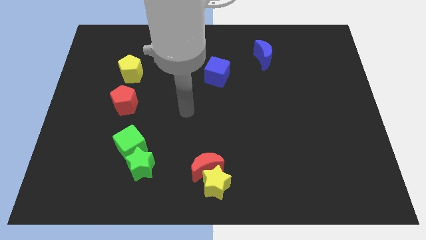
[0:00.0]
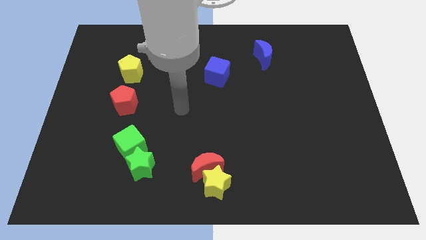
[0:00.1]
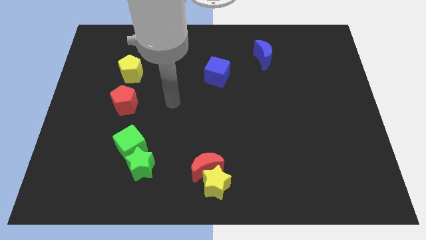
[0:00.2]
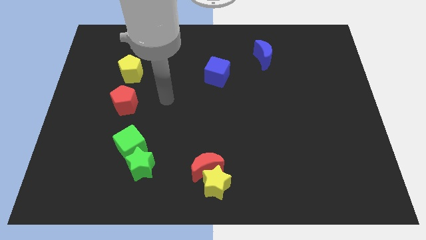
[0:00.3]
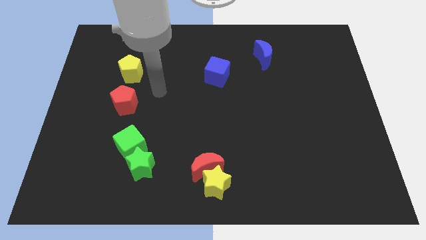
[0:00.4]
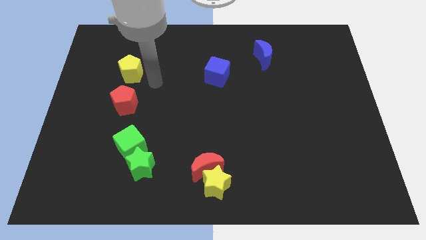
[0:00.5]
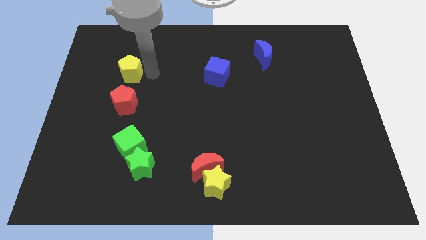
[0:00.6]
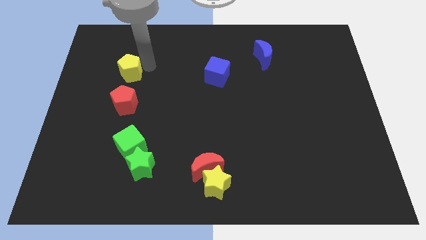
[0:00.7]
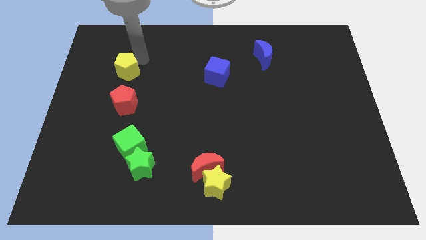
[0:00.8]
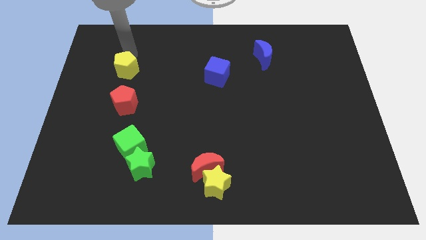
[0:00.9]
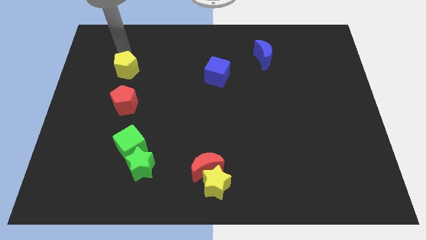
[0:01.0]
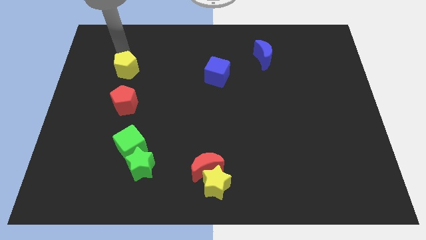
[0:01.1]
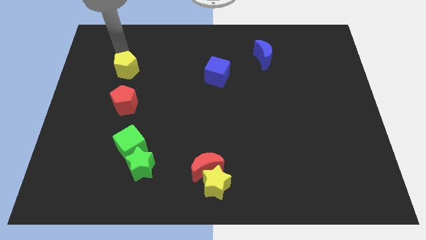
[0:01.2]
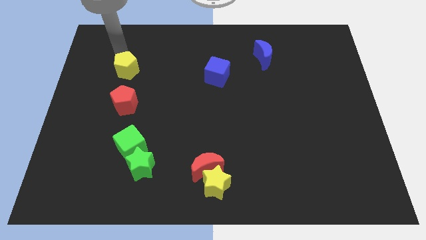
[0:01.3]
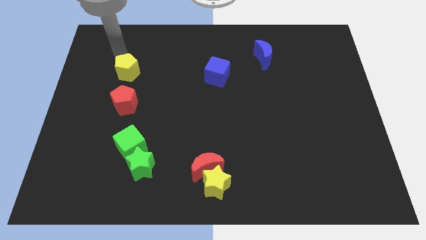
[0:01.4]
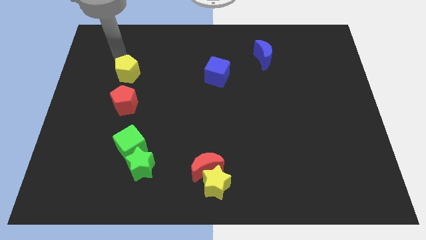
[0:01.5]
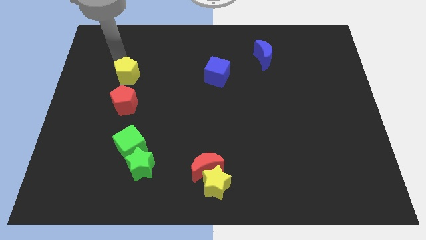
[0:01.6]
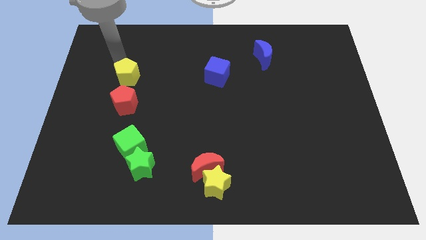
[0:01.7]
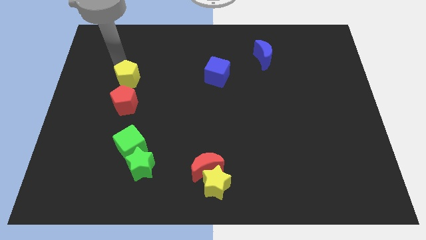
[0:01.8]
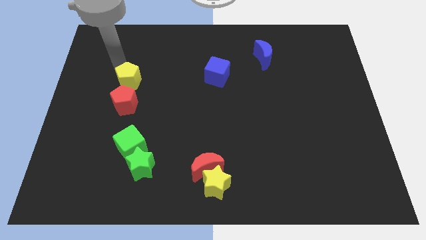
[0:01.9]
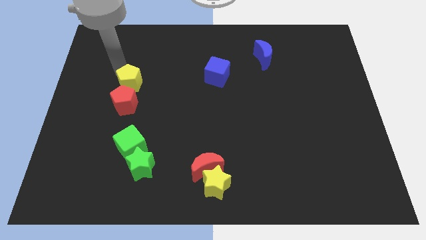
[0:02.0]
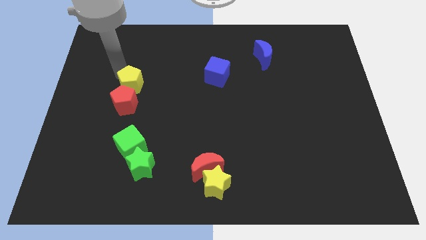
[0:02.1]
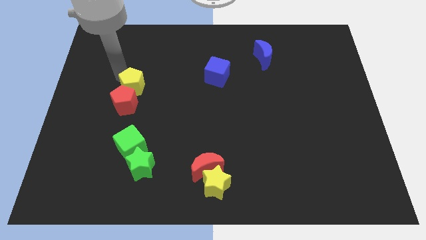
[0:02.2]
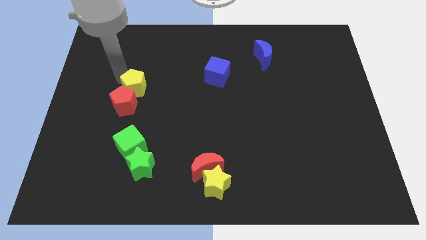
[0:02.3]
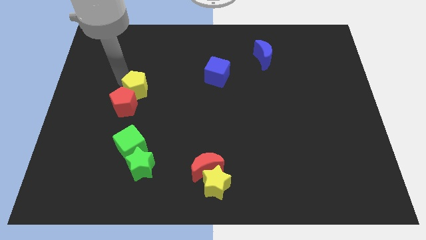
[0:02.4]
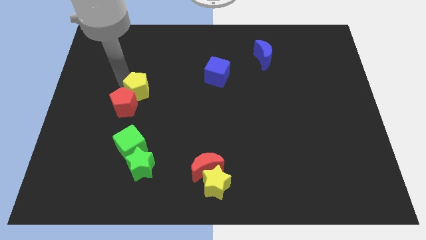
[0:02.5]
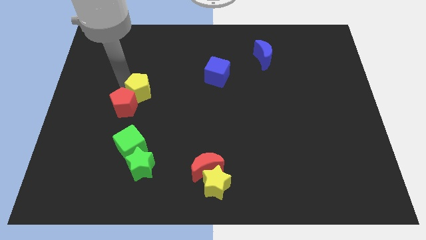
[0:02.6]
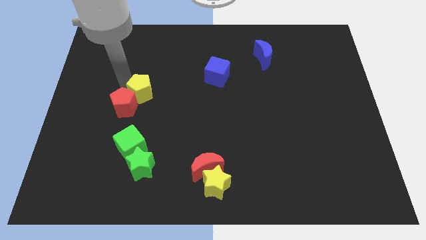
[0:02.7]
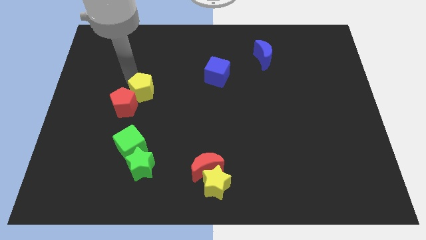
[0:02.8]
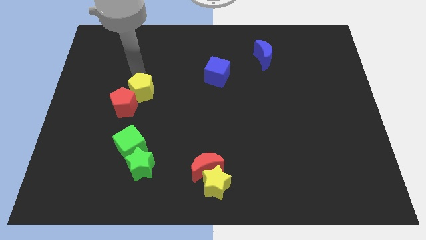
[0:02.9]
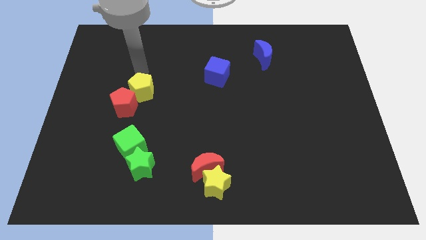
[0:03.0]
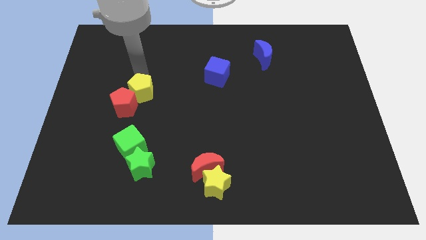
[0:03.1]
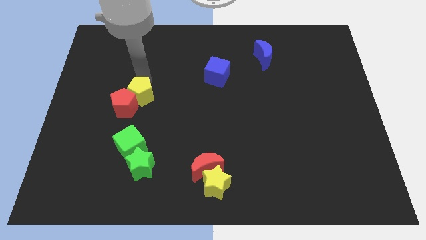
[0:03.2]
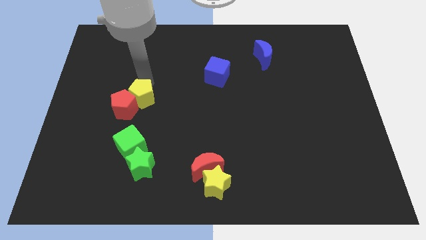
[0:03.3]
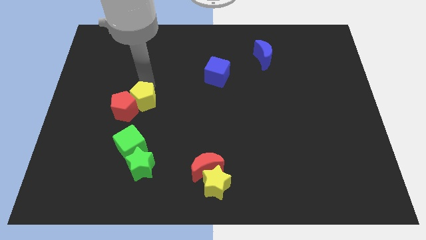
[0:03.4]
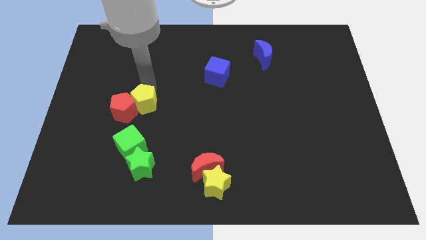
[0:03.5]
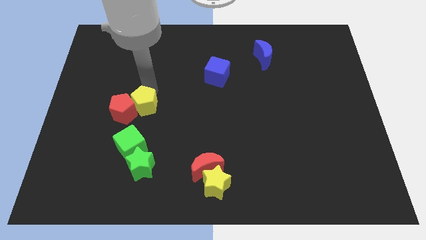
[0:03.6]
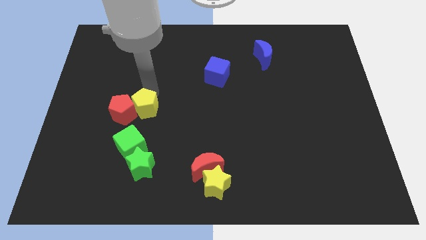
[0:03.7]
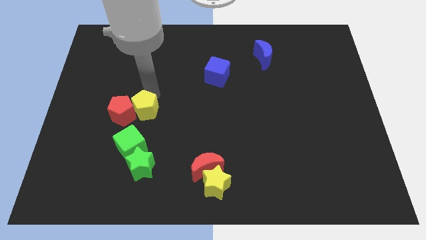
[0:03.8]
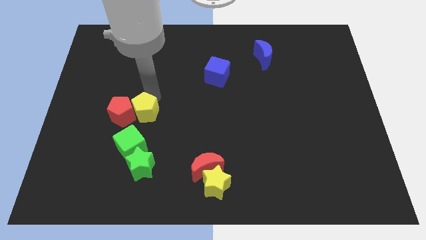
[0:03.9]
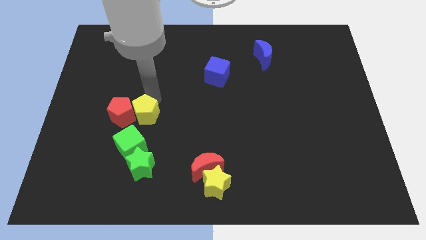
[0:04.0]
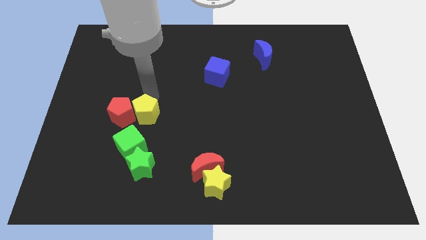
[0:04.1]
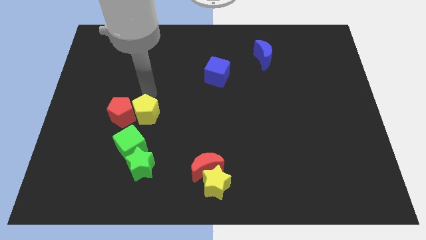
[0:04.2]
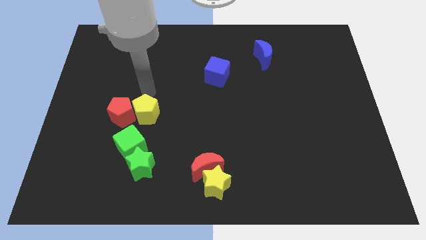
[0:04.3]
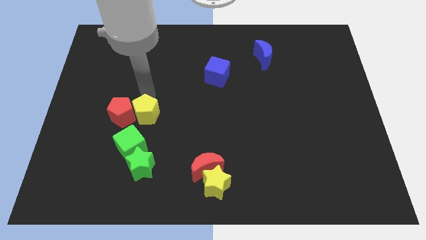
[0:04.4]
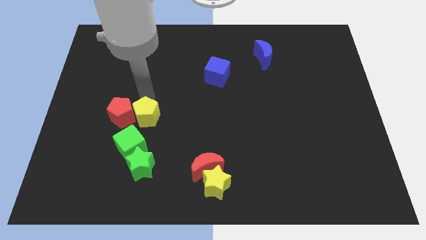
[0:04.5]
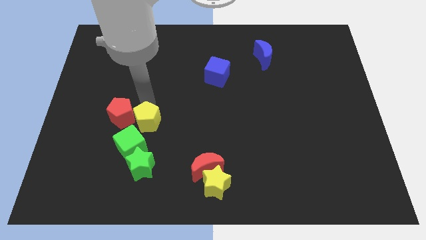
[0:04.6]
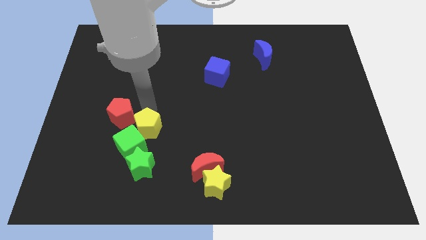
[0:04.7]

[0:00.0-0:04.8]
move the yellow pentagon next to the green cube

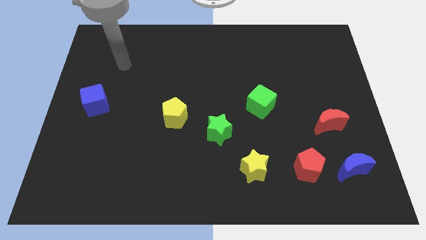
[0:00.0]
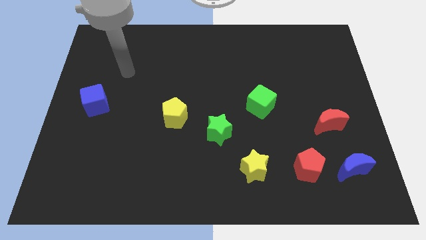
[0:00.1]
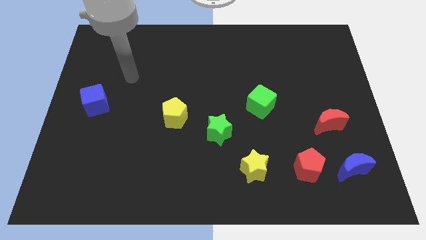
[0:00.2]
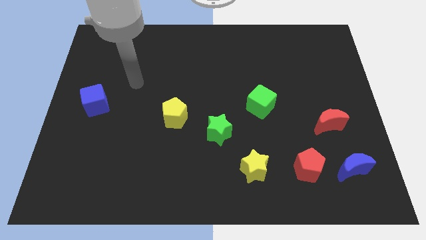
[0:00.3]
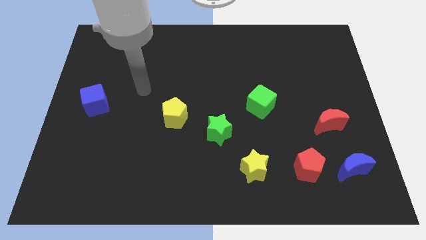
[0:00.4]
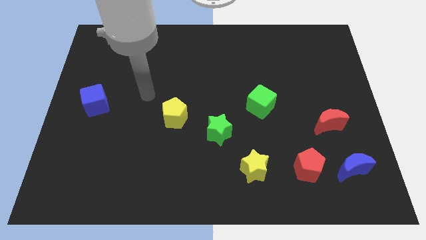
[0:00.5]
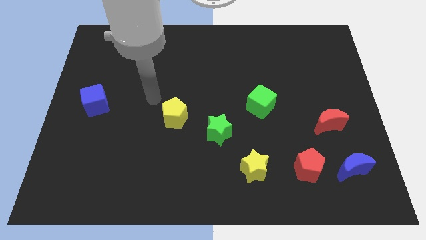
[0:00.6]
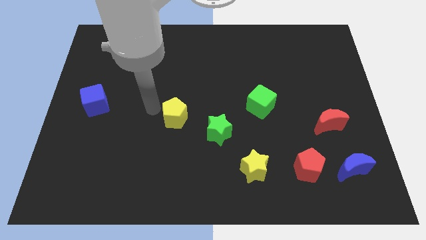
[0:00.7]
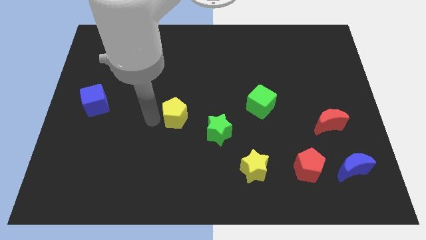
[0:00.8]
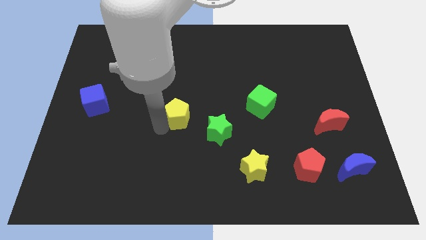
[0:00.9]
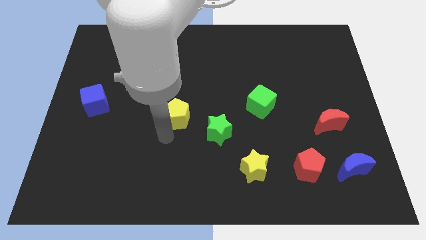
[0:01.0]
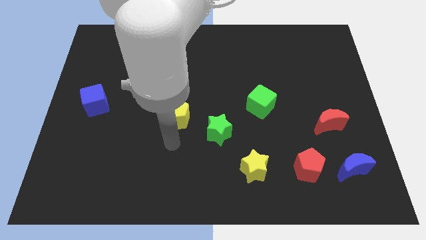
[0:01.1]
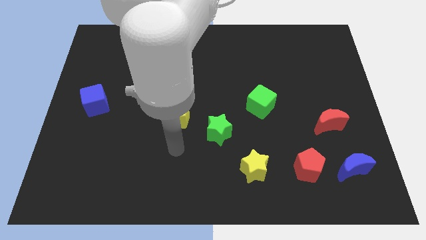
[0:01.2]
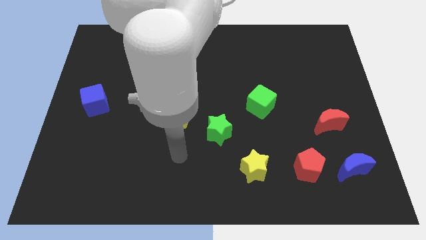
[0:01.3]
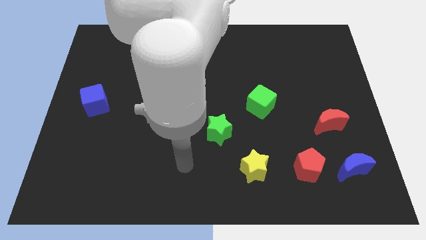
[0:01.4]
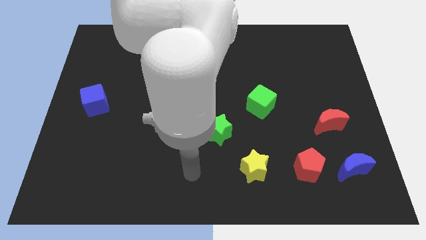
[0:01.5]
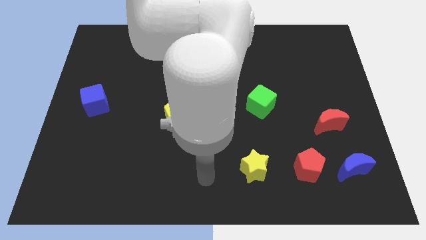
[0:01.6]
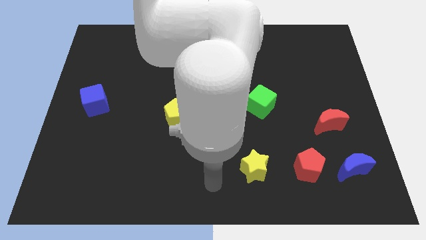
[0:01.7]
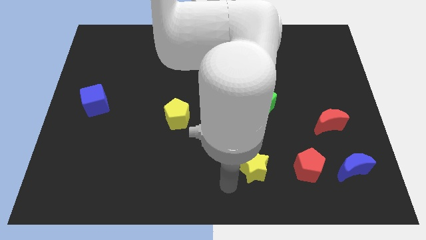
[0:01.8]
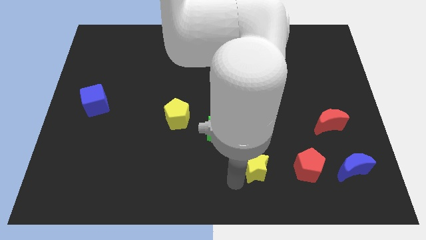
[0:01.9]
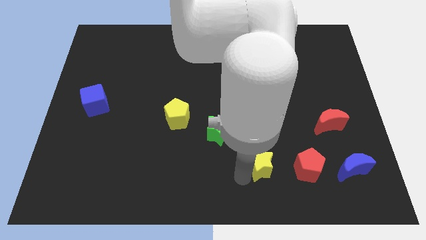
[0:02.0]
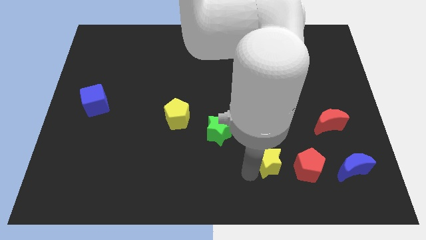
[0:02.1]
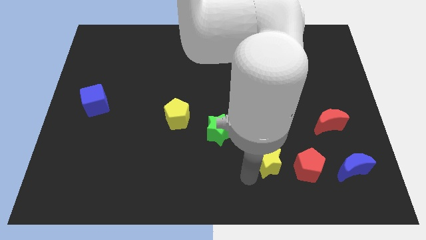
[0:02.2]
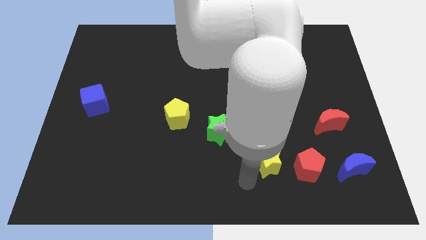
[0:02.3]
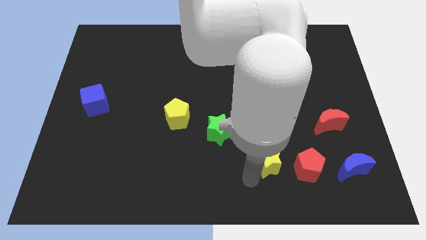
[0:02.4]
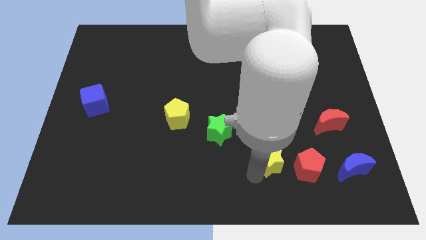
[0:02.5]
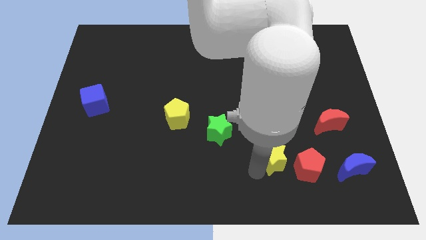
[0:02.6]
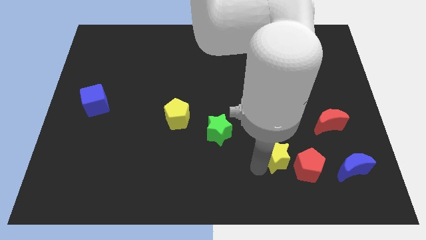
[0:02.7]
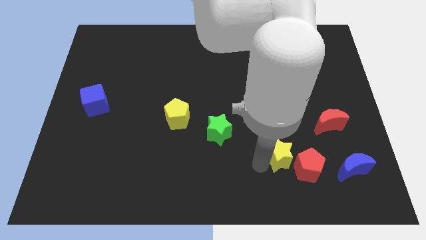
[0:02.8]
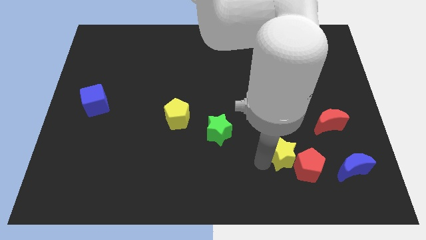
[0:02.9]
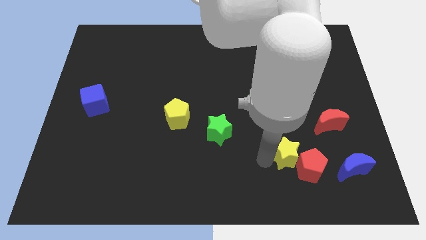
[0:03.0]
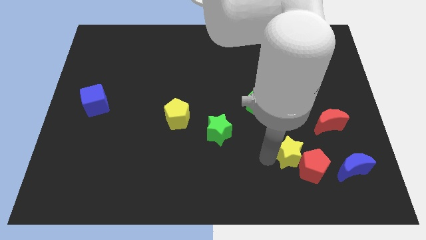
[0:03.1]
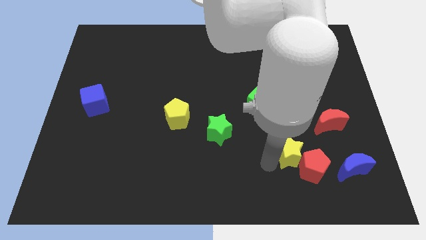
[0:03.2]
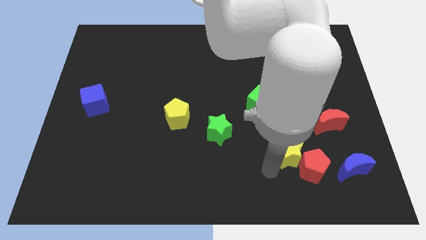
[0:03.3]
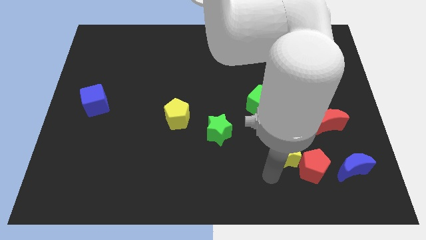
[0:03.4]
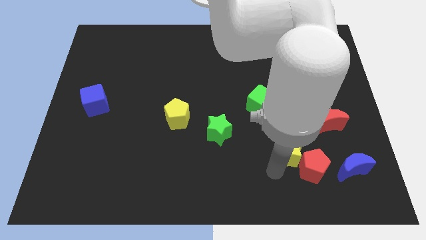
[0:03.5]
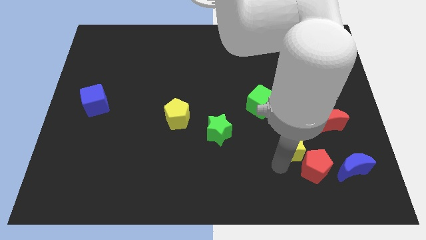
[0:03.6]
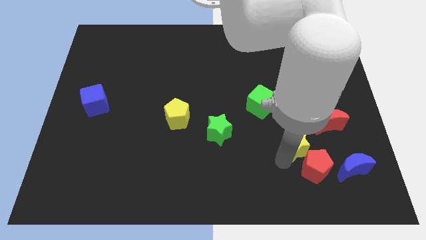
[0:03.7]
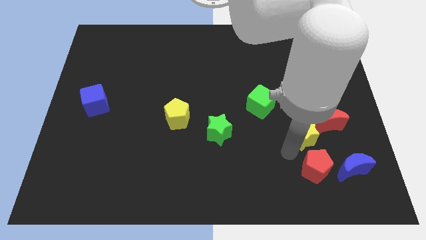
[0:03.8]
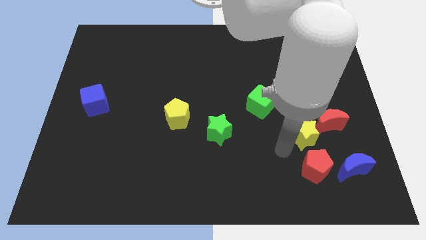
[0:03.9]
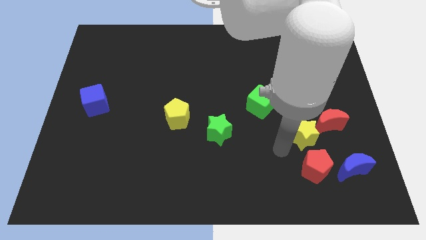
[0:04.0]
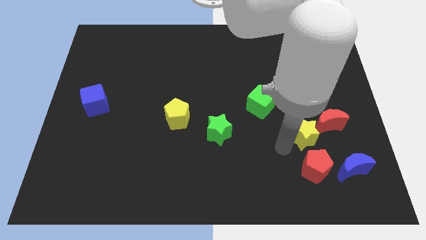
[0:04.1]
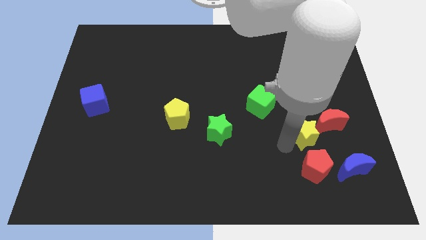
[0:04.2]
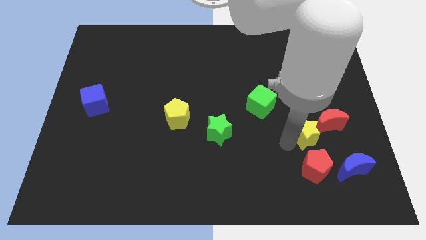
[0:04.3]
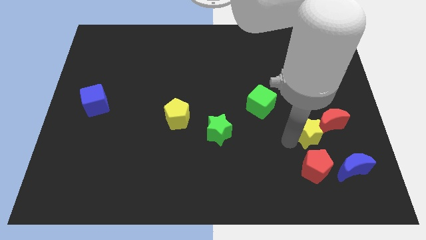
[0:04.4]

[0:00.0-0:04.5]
push the yellow star next to the red moon
